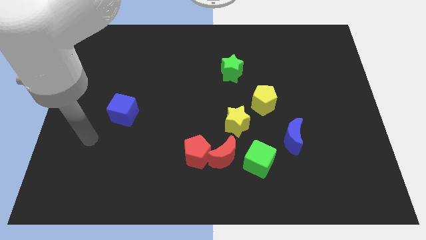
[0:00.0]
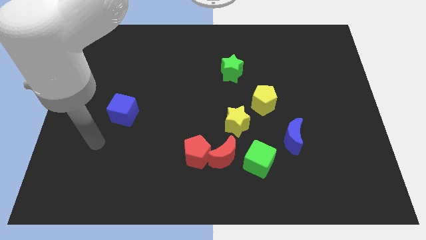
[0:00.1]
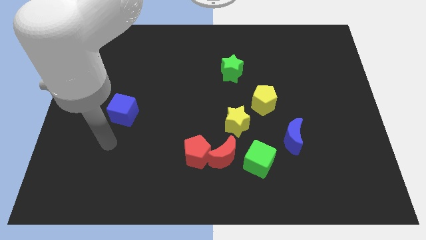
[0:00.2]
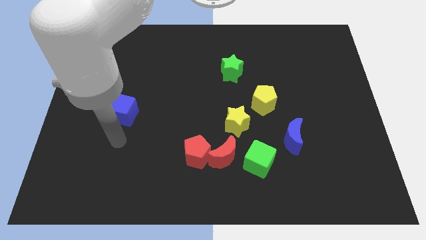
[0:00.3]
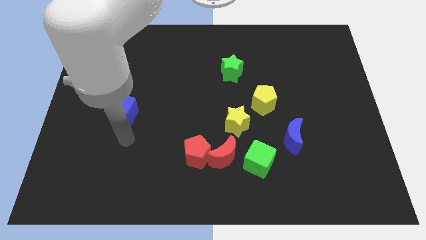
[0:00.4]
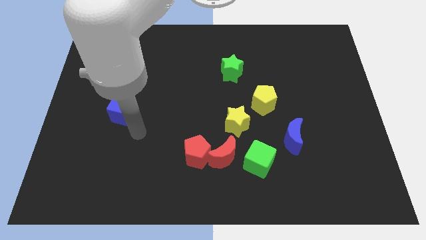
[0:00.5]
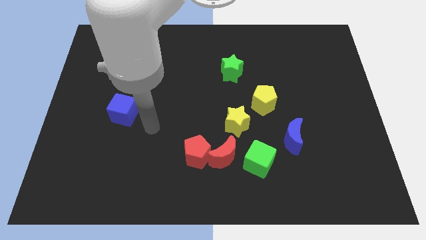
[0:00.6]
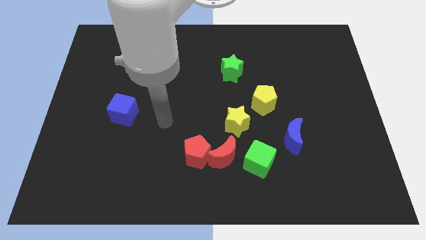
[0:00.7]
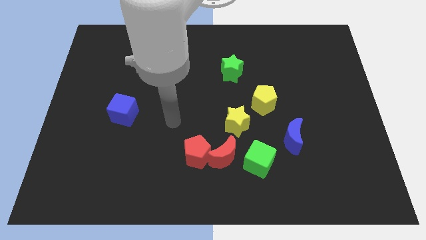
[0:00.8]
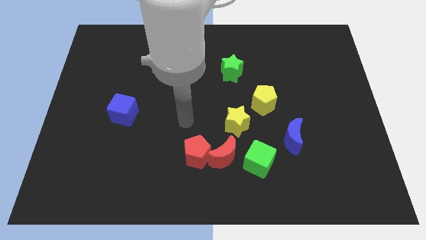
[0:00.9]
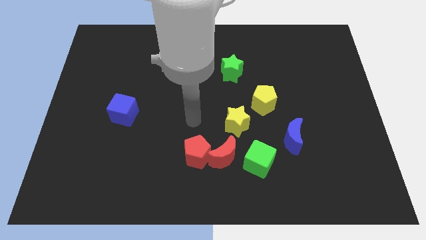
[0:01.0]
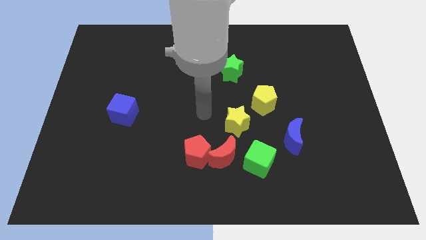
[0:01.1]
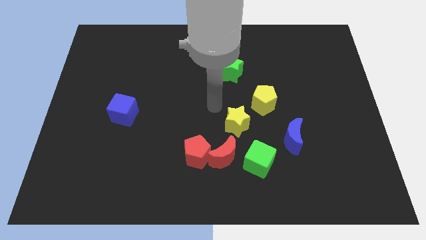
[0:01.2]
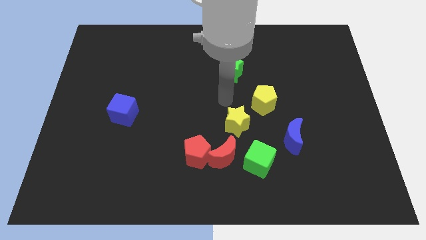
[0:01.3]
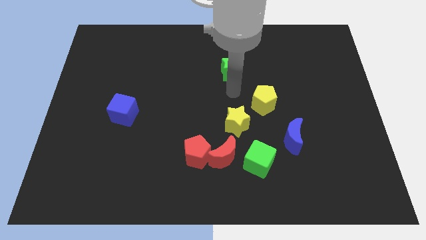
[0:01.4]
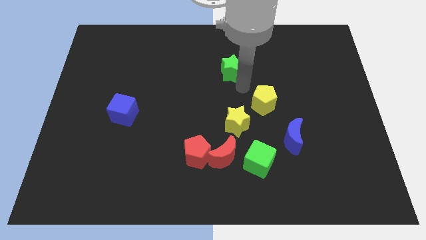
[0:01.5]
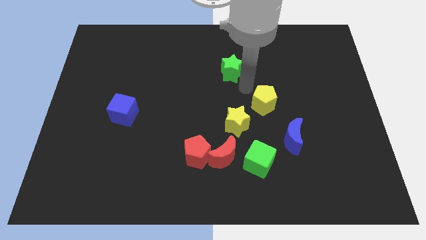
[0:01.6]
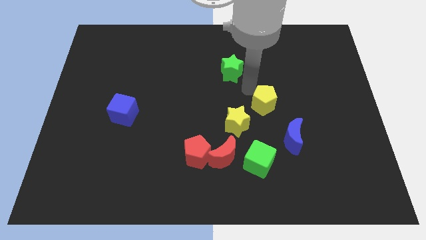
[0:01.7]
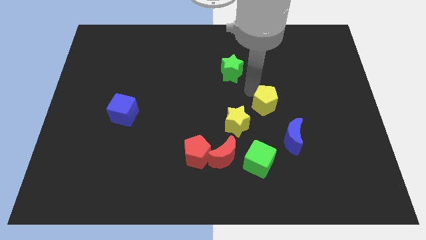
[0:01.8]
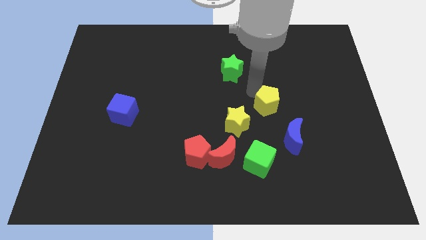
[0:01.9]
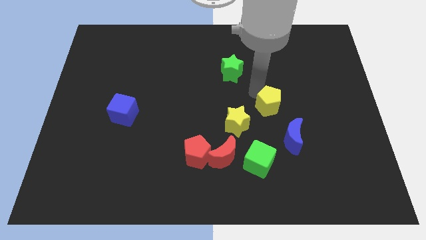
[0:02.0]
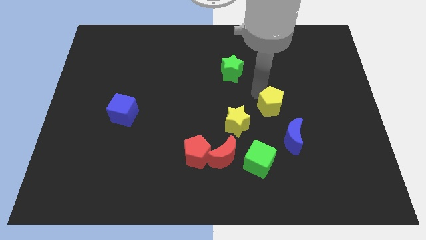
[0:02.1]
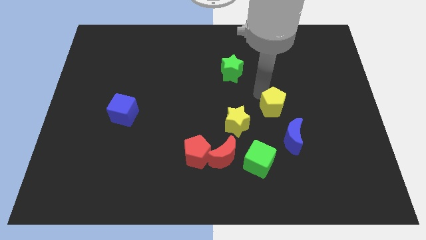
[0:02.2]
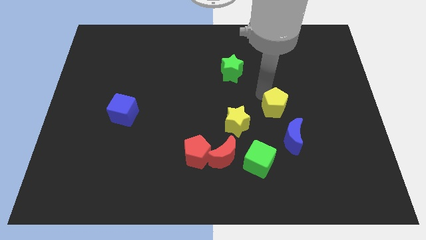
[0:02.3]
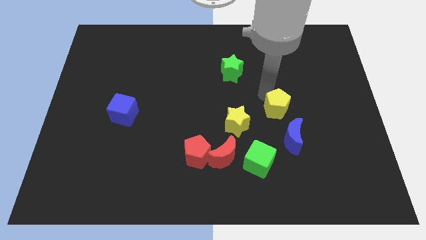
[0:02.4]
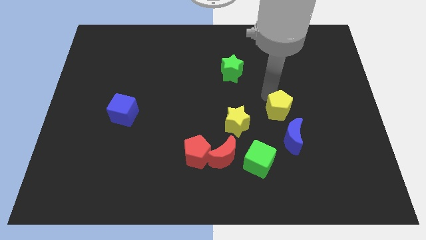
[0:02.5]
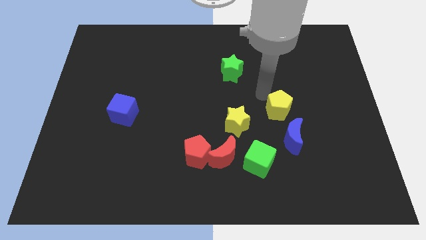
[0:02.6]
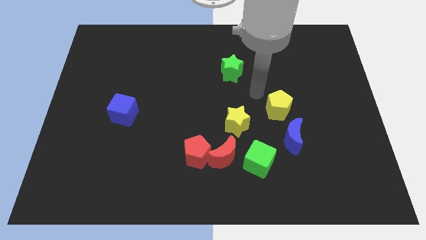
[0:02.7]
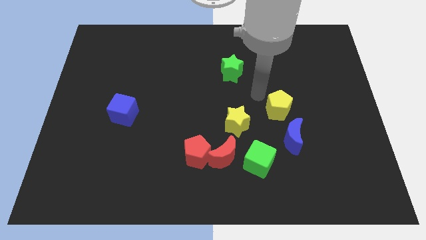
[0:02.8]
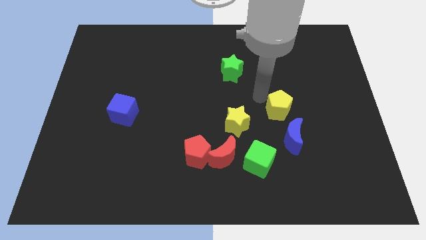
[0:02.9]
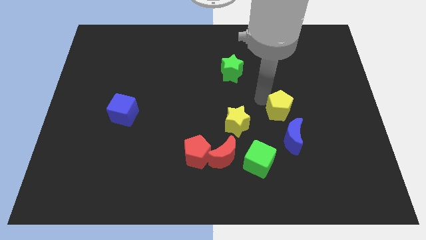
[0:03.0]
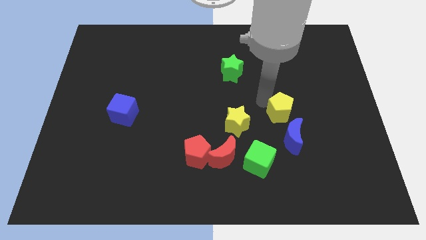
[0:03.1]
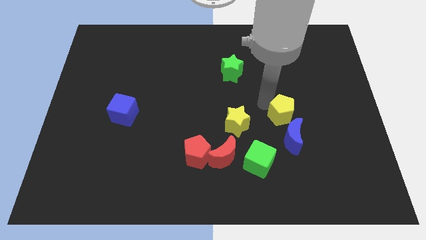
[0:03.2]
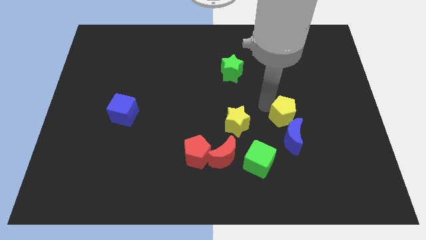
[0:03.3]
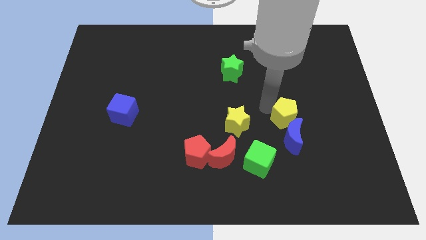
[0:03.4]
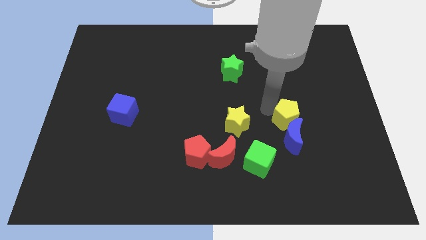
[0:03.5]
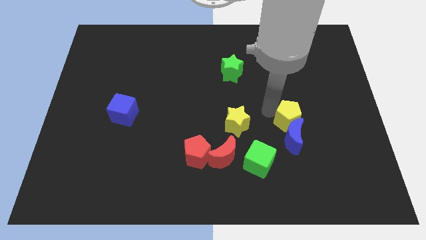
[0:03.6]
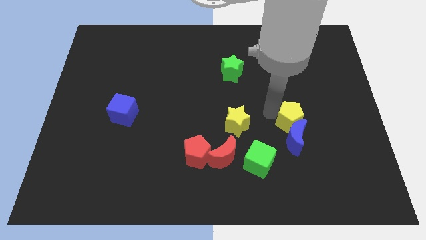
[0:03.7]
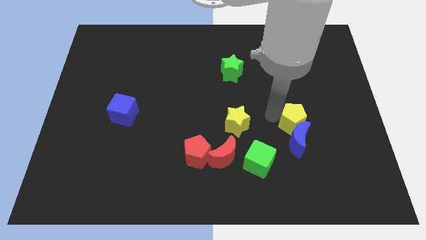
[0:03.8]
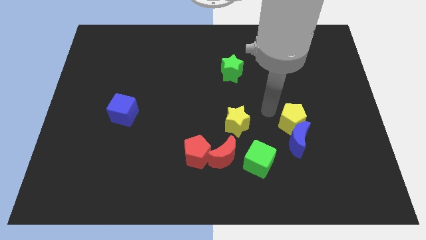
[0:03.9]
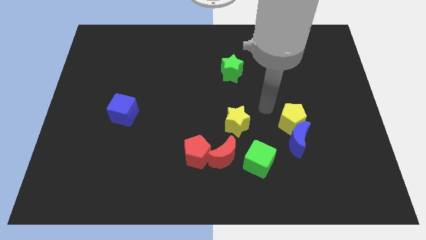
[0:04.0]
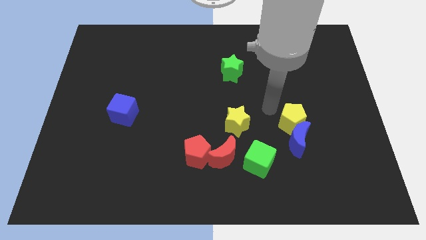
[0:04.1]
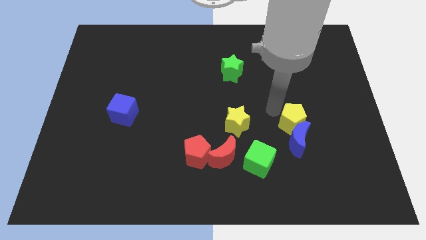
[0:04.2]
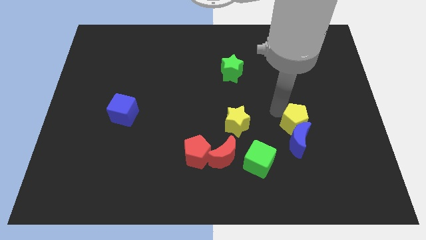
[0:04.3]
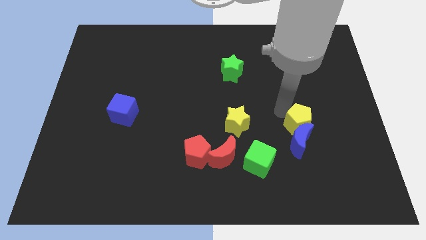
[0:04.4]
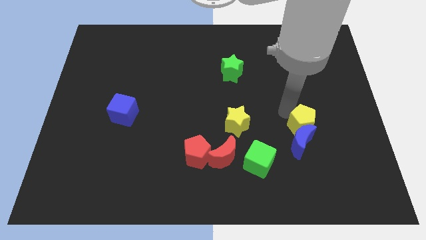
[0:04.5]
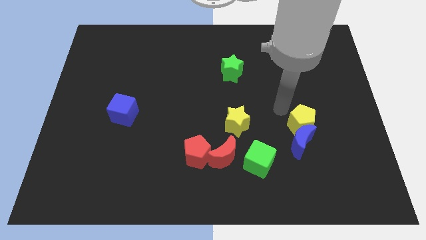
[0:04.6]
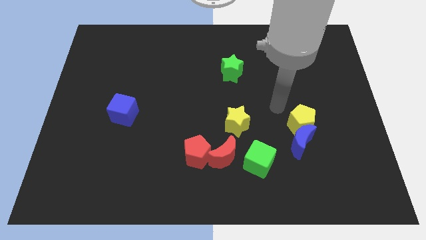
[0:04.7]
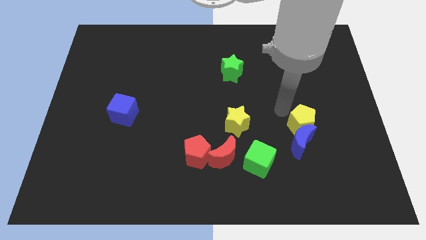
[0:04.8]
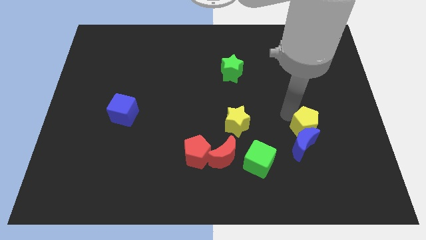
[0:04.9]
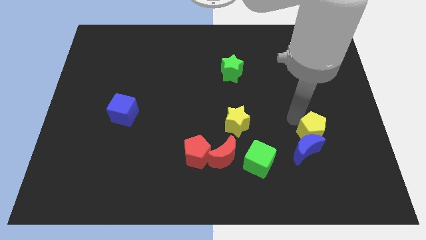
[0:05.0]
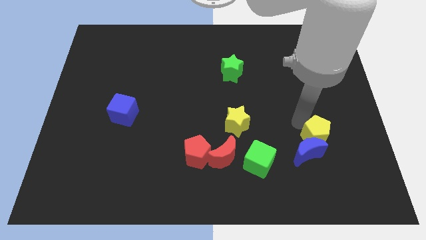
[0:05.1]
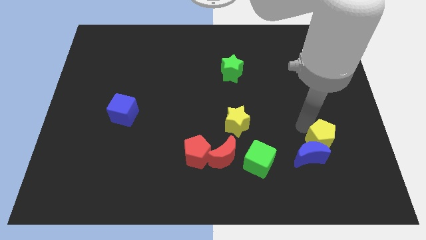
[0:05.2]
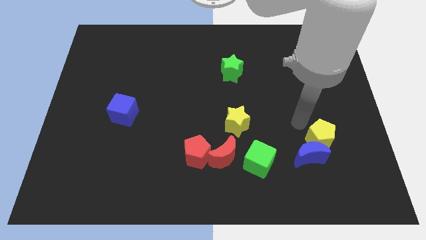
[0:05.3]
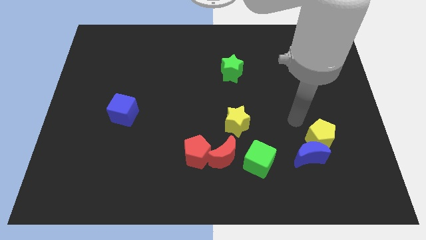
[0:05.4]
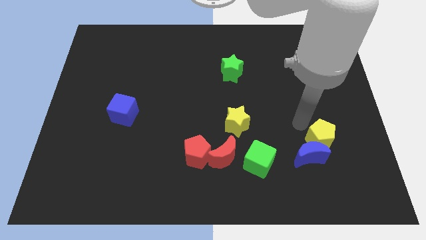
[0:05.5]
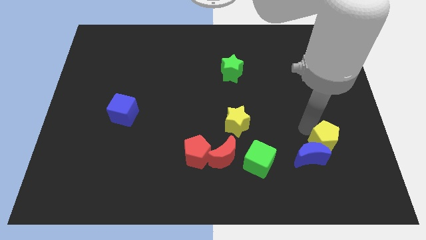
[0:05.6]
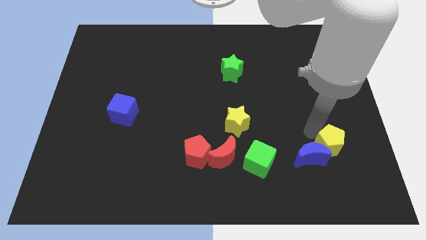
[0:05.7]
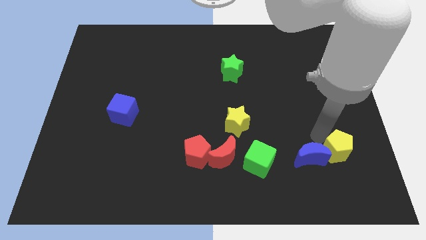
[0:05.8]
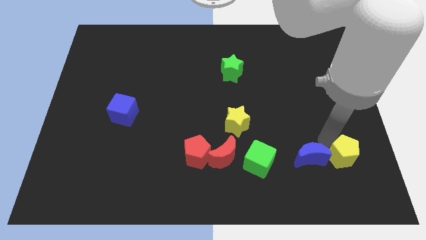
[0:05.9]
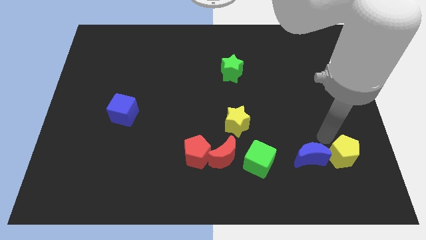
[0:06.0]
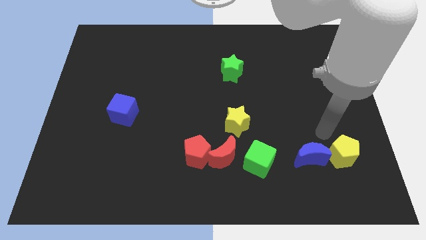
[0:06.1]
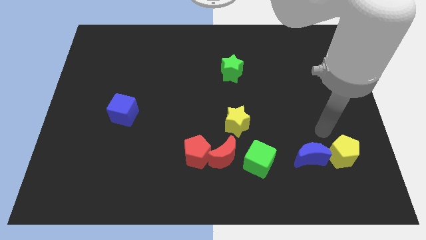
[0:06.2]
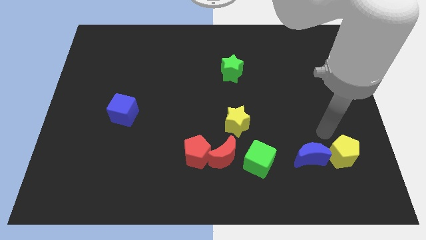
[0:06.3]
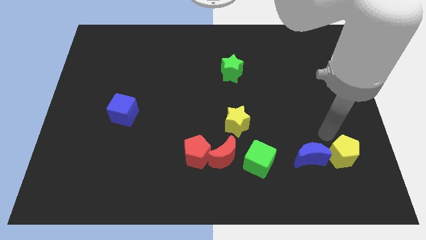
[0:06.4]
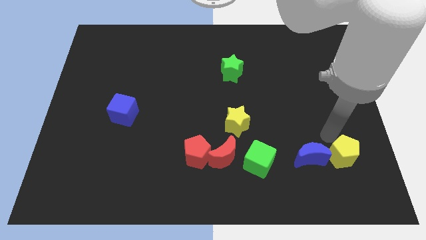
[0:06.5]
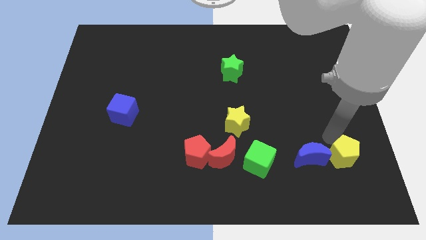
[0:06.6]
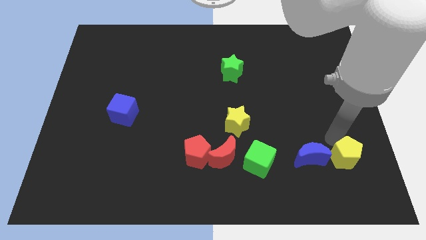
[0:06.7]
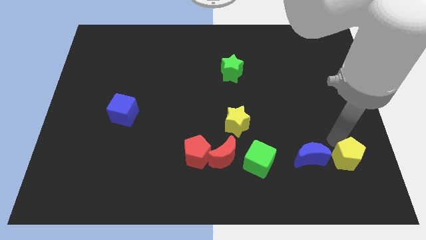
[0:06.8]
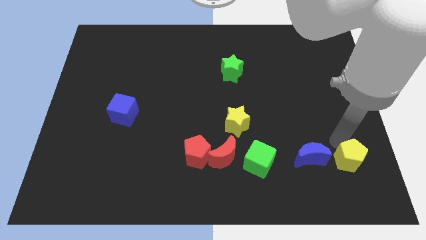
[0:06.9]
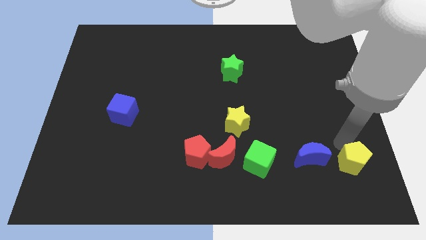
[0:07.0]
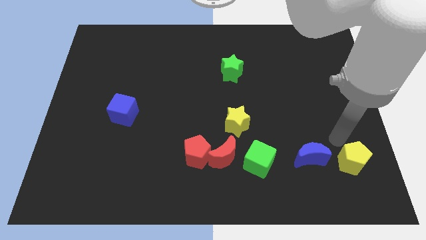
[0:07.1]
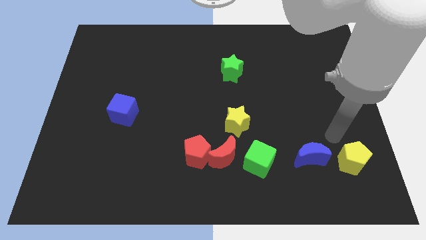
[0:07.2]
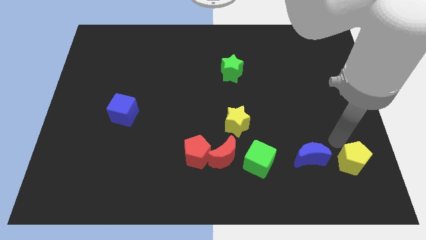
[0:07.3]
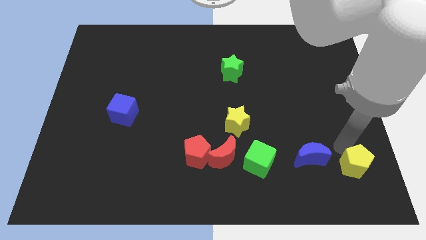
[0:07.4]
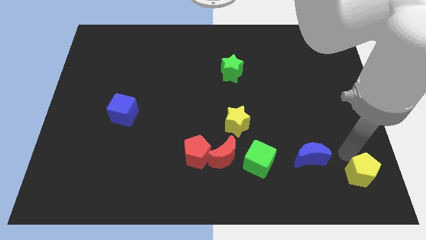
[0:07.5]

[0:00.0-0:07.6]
push the yellow pentagon to the bottom right of the board
